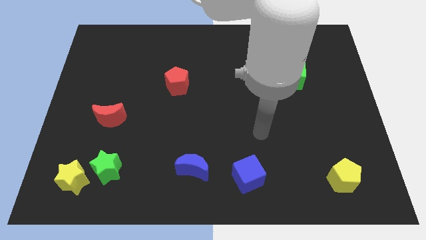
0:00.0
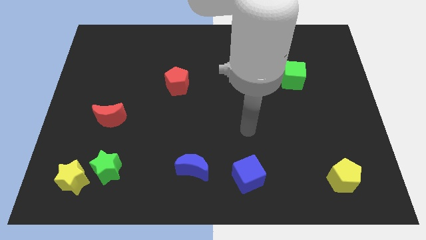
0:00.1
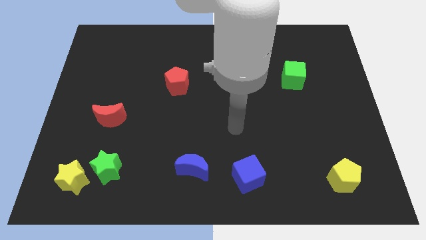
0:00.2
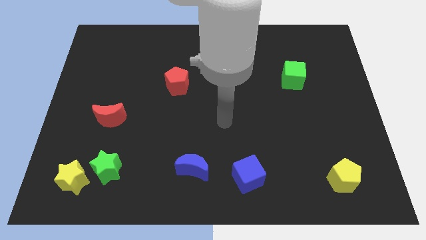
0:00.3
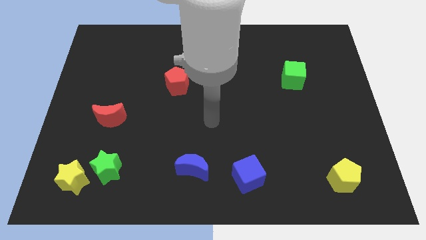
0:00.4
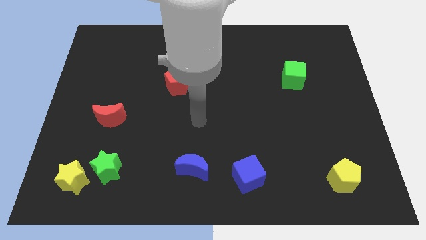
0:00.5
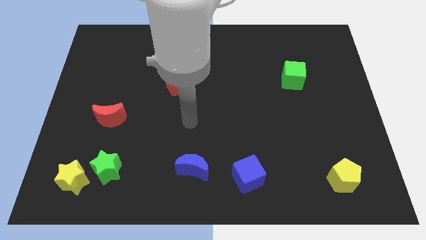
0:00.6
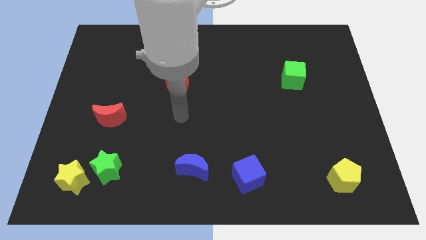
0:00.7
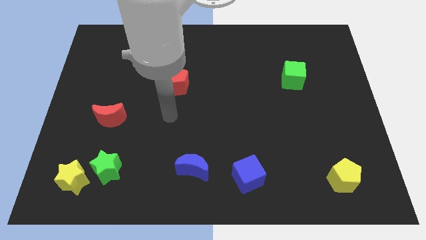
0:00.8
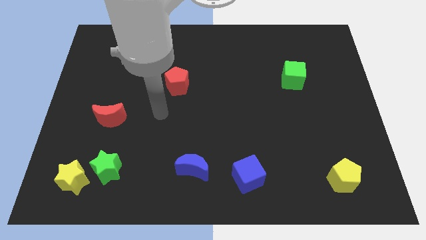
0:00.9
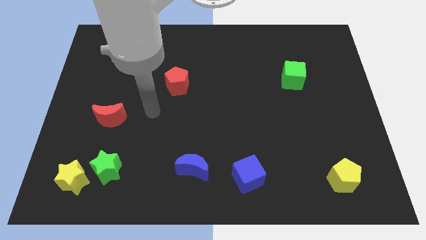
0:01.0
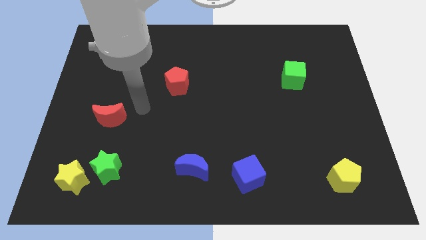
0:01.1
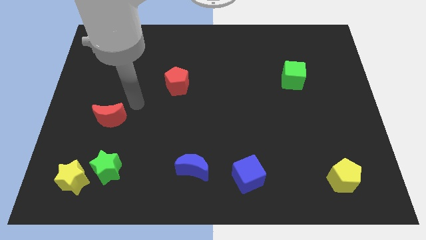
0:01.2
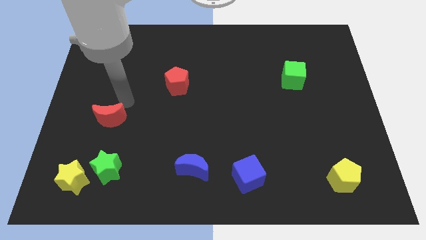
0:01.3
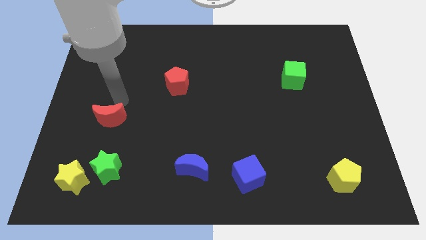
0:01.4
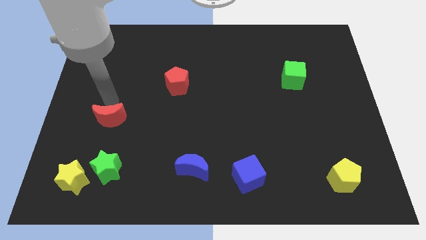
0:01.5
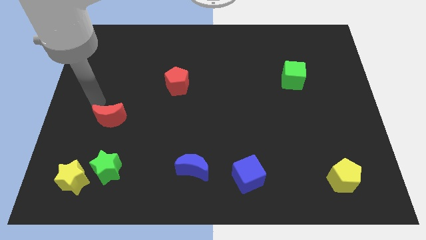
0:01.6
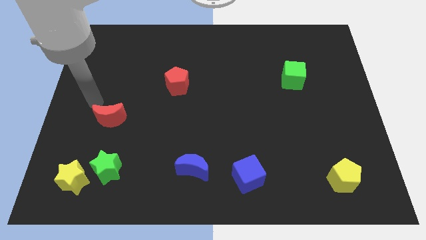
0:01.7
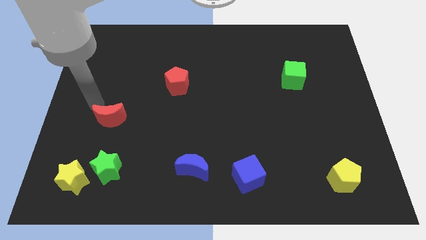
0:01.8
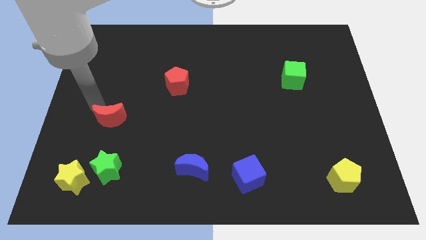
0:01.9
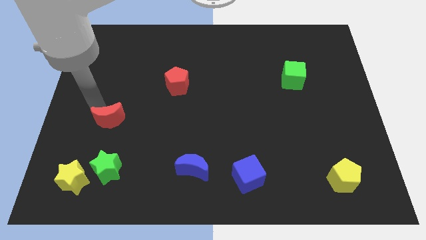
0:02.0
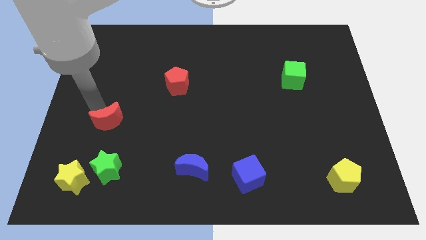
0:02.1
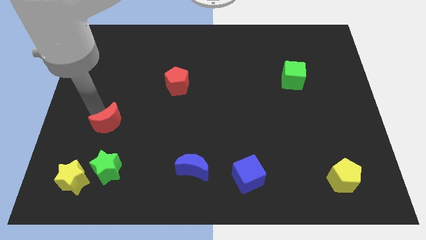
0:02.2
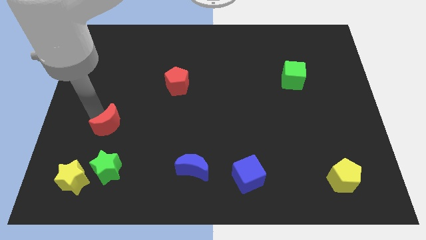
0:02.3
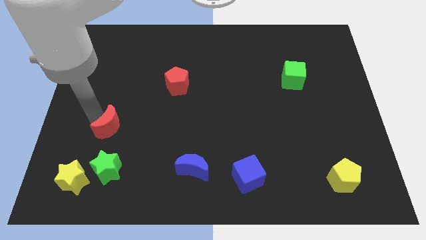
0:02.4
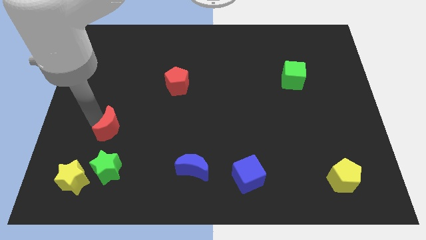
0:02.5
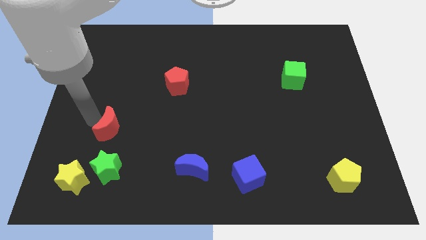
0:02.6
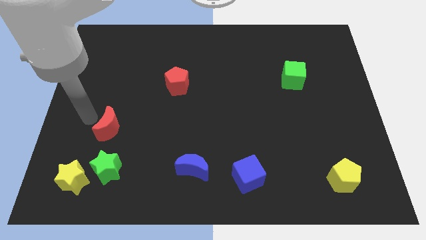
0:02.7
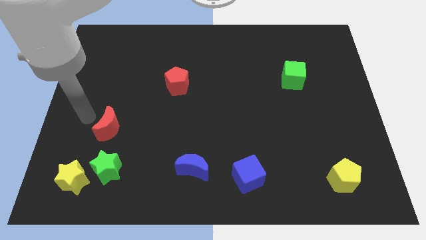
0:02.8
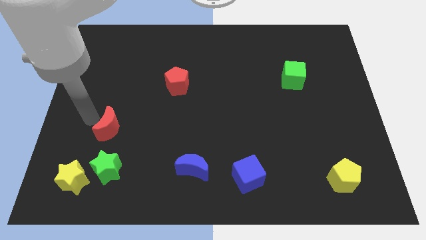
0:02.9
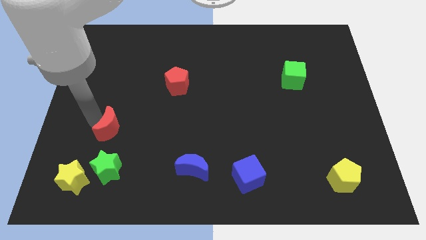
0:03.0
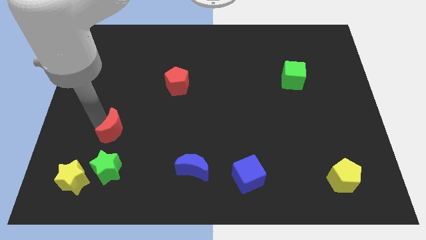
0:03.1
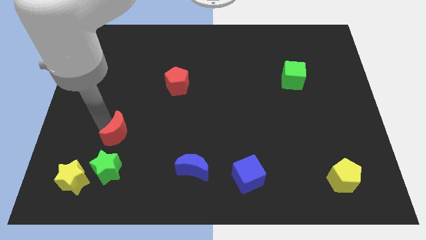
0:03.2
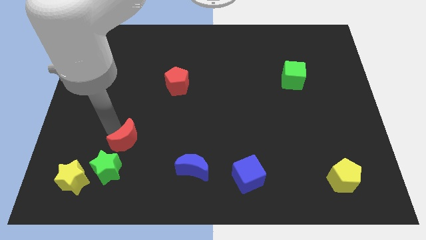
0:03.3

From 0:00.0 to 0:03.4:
move the red moon slightly down and right

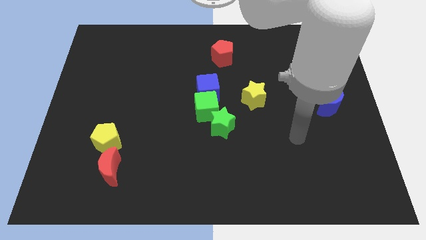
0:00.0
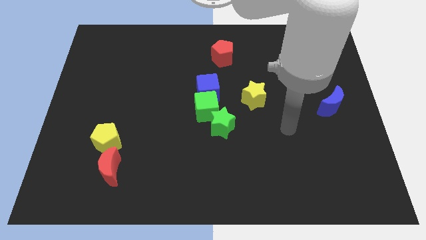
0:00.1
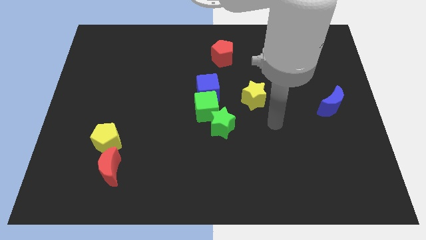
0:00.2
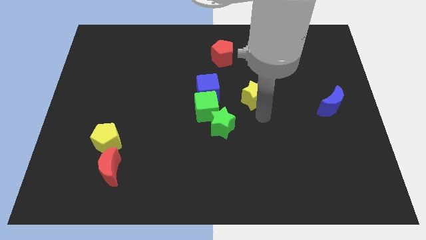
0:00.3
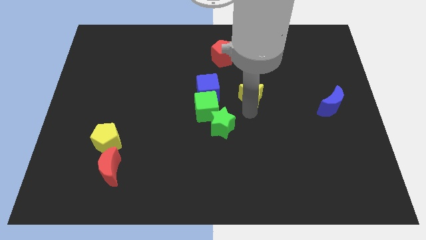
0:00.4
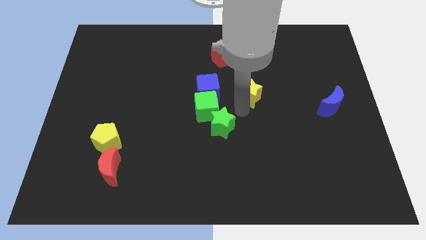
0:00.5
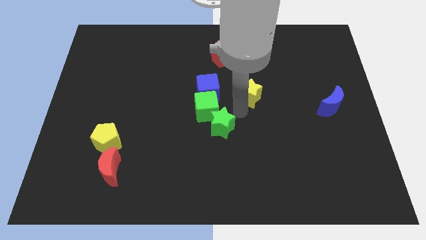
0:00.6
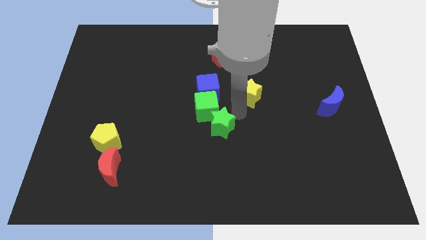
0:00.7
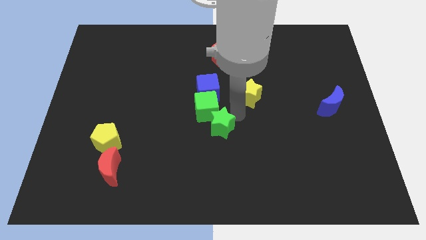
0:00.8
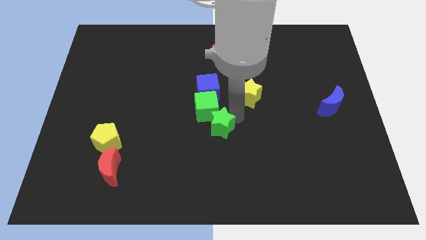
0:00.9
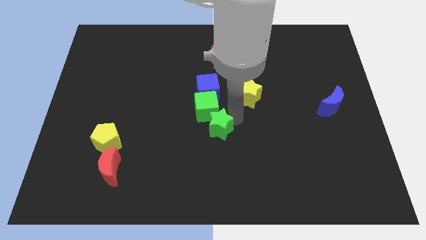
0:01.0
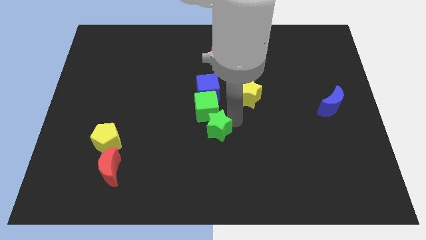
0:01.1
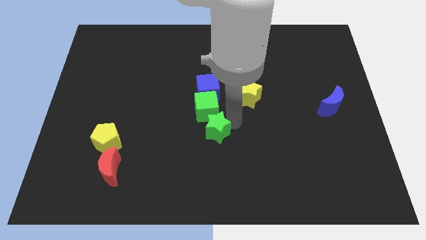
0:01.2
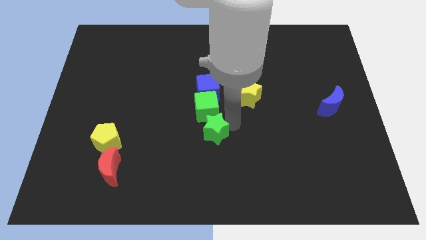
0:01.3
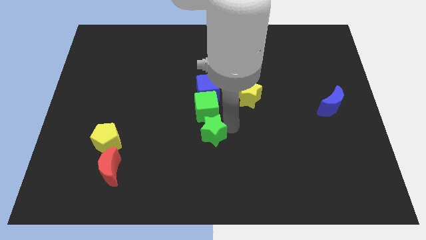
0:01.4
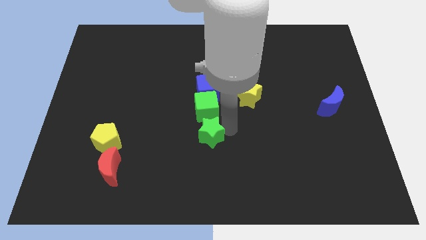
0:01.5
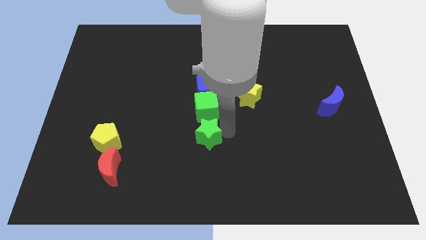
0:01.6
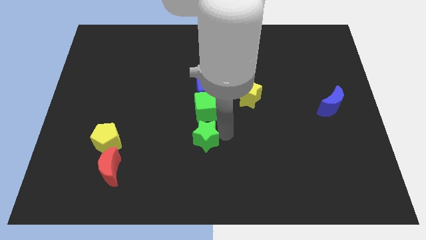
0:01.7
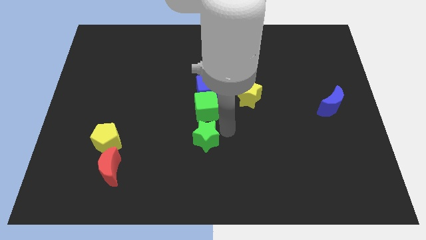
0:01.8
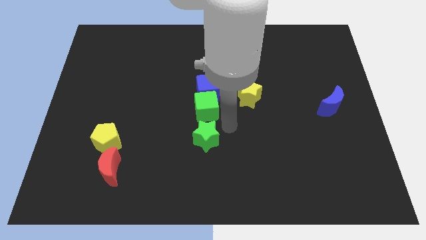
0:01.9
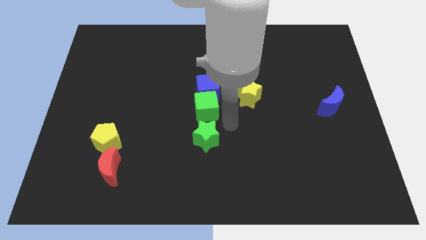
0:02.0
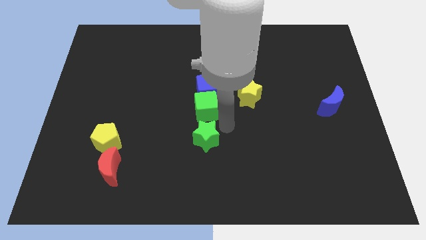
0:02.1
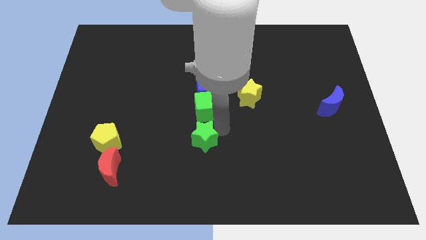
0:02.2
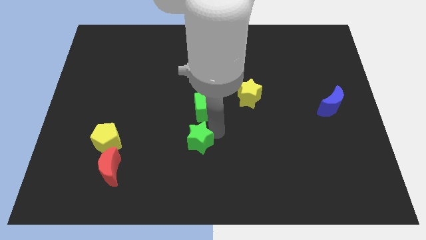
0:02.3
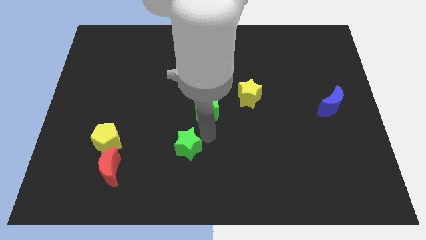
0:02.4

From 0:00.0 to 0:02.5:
move the green star slightly down and left

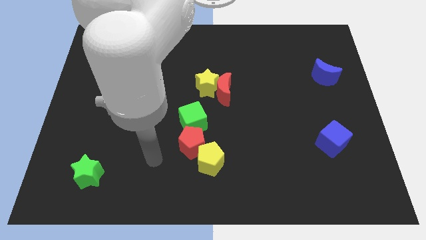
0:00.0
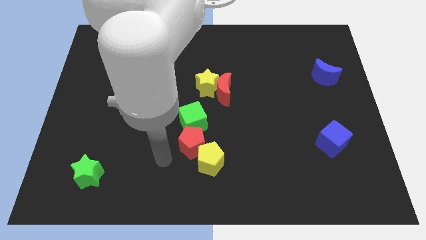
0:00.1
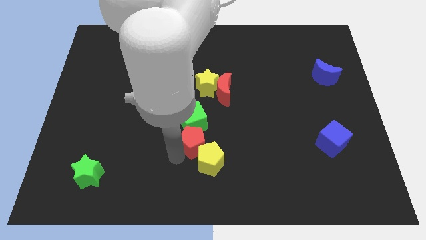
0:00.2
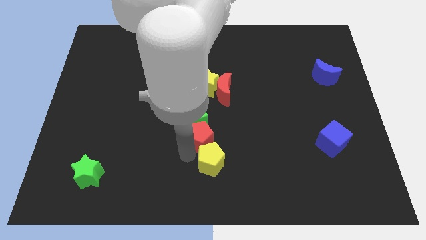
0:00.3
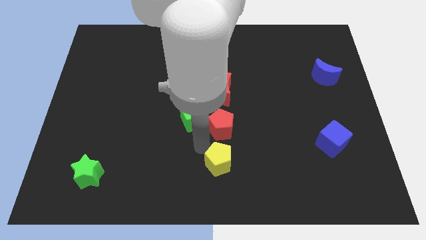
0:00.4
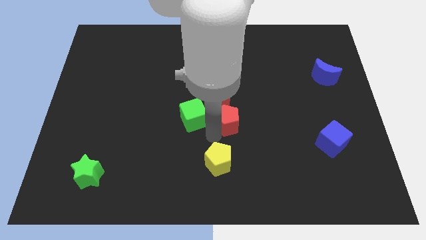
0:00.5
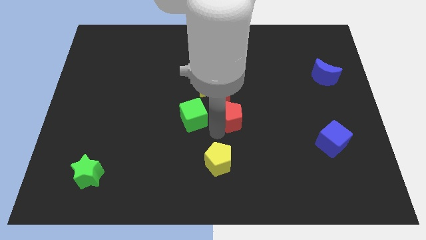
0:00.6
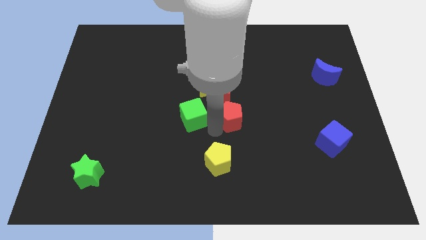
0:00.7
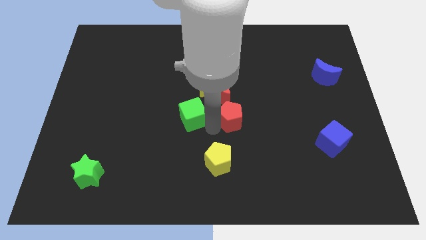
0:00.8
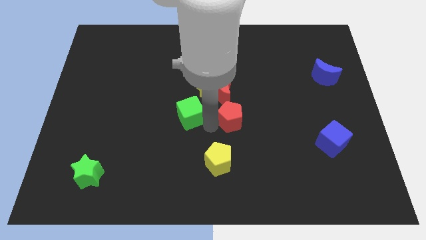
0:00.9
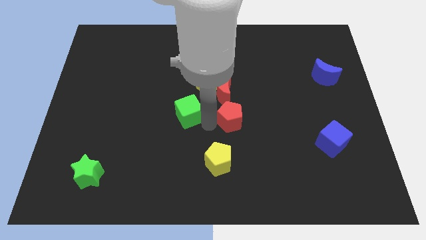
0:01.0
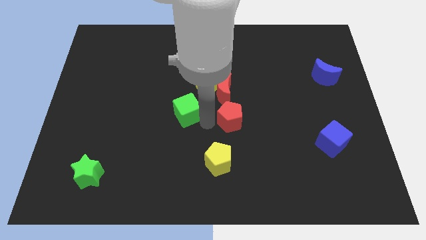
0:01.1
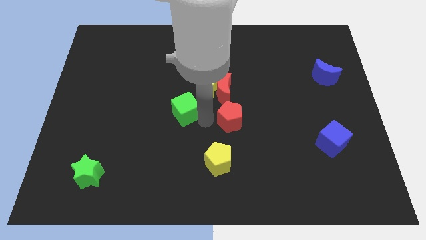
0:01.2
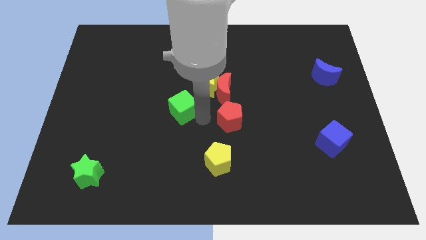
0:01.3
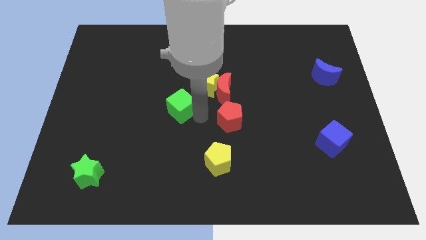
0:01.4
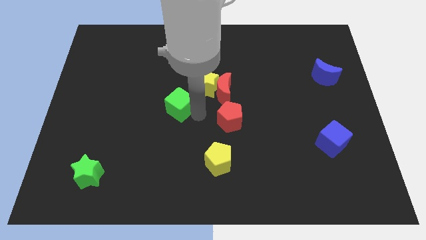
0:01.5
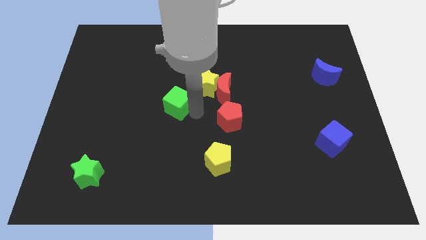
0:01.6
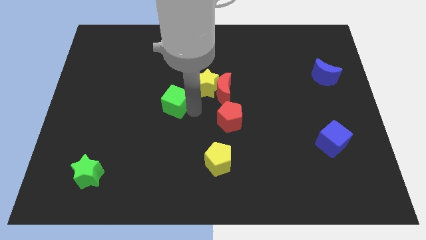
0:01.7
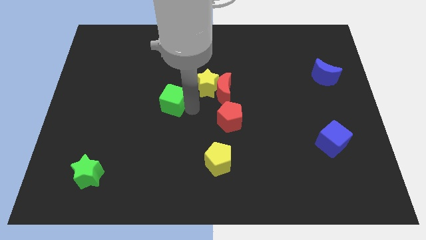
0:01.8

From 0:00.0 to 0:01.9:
slightly slide the green cube diagonally upwards and left

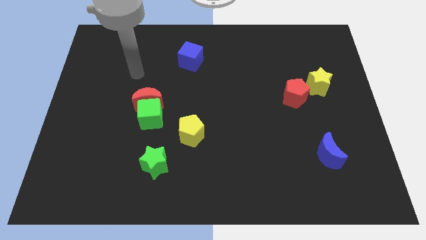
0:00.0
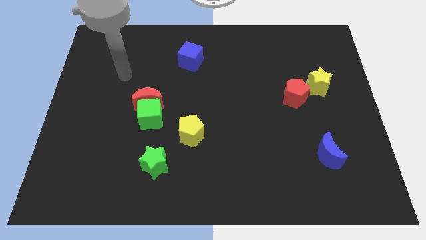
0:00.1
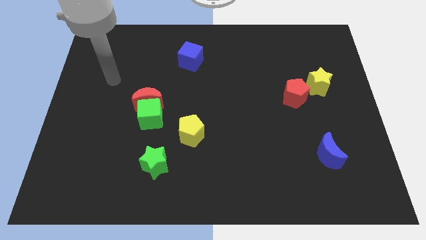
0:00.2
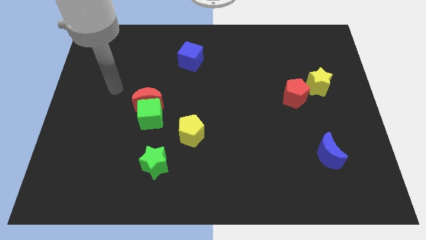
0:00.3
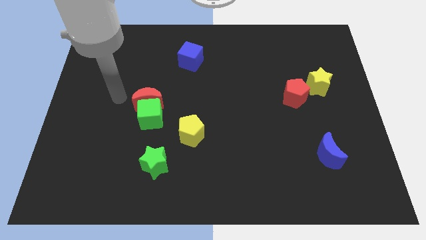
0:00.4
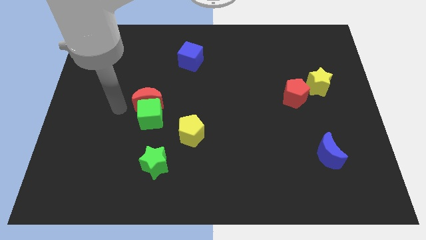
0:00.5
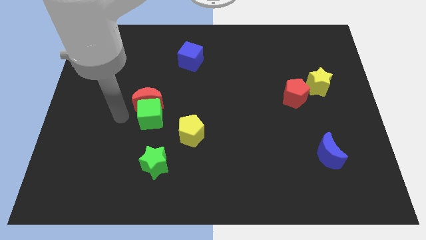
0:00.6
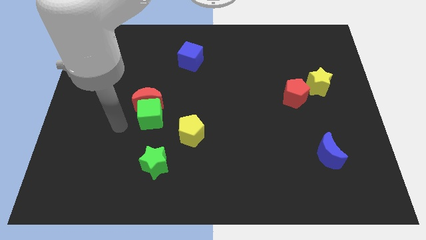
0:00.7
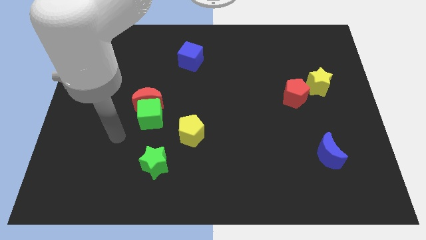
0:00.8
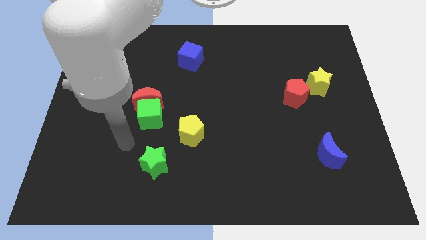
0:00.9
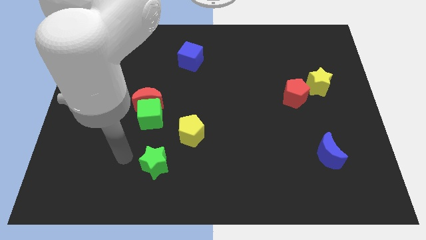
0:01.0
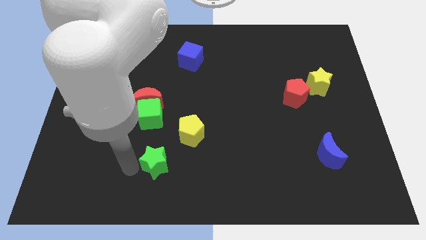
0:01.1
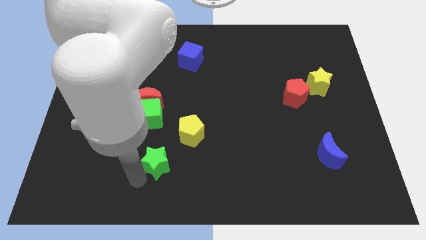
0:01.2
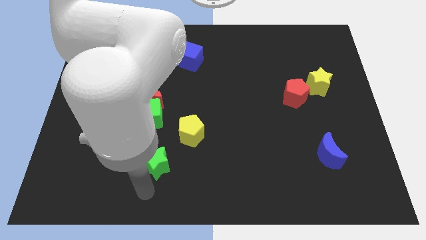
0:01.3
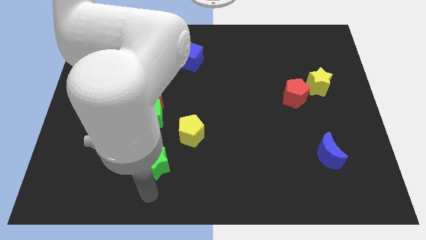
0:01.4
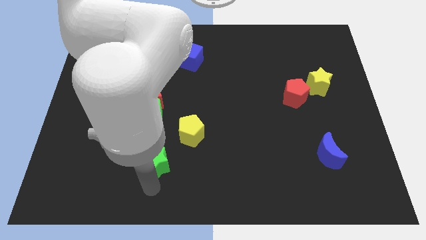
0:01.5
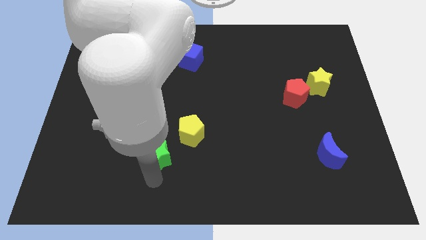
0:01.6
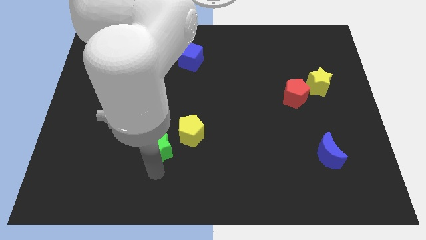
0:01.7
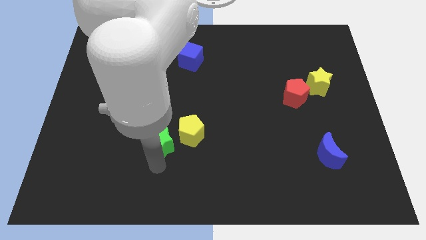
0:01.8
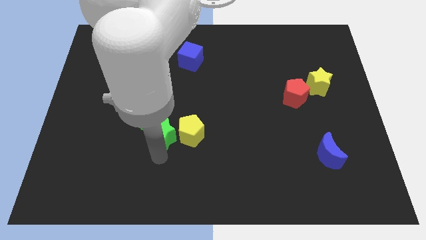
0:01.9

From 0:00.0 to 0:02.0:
slightly slide the green star up
